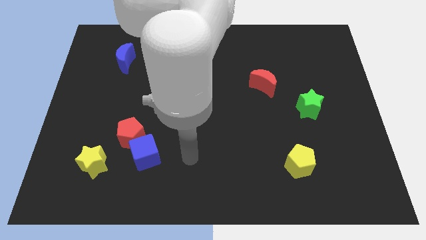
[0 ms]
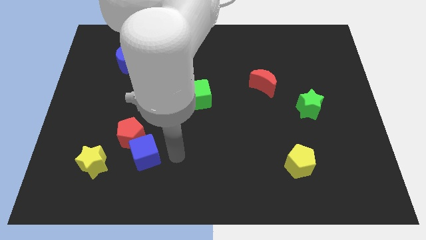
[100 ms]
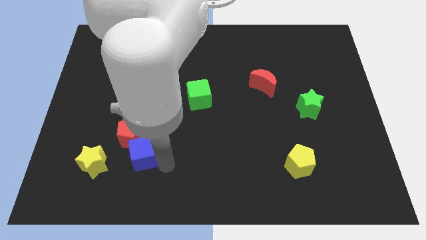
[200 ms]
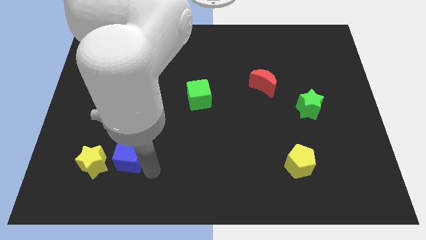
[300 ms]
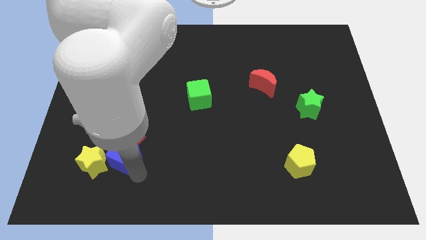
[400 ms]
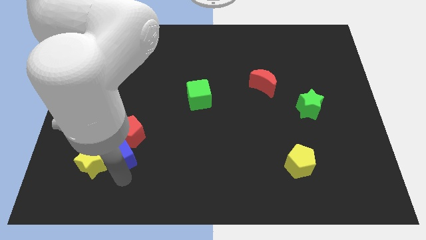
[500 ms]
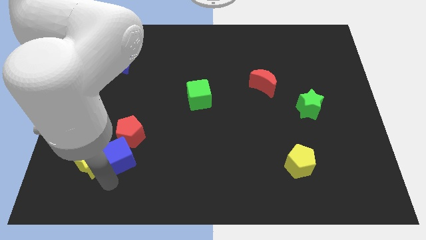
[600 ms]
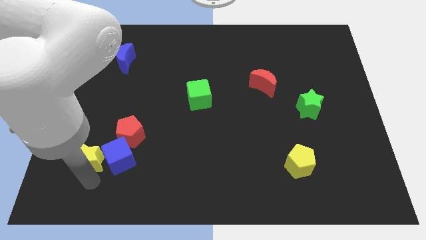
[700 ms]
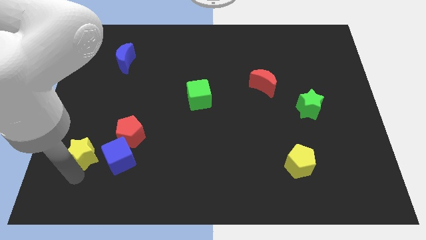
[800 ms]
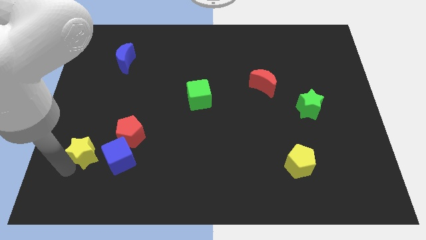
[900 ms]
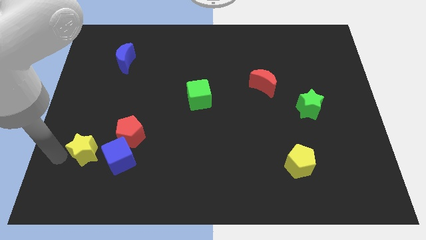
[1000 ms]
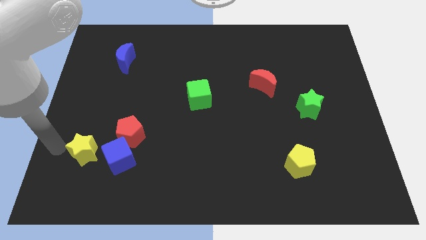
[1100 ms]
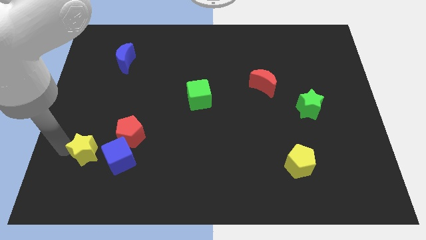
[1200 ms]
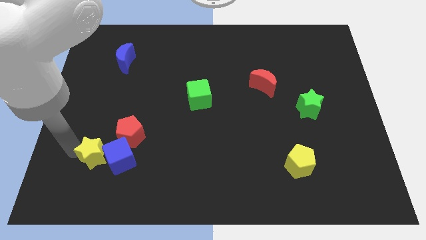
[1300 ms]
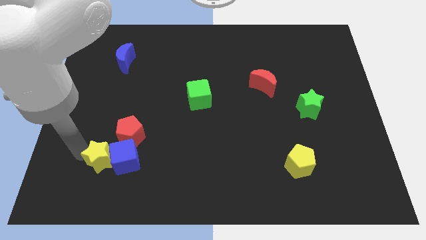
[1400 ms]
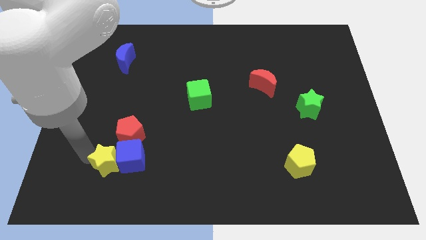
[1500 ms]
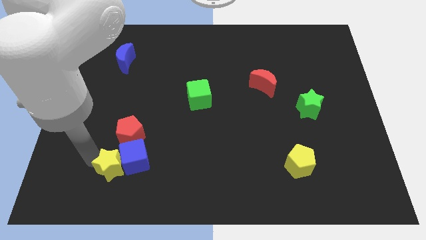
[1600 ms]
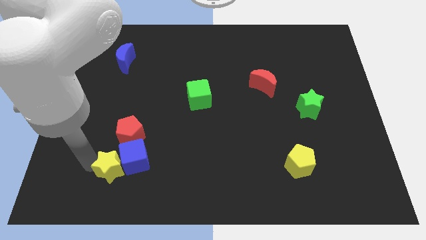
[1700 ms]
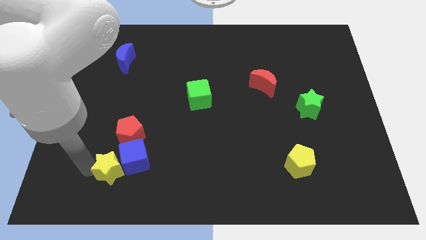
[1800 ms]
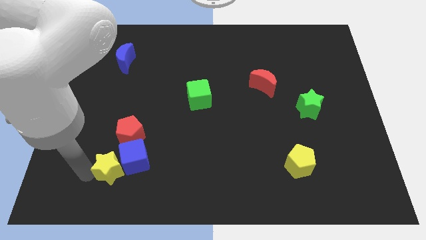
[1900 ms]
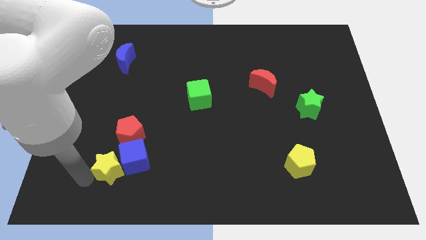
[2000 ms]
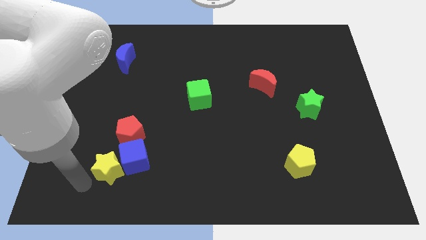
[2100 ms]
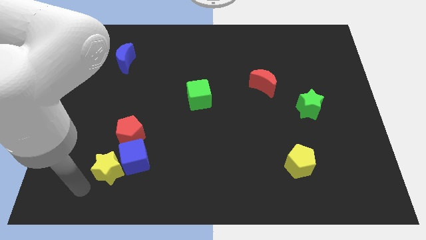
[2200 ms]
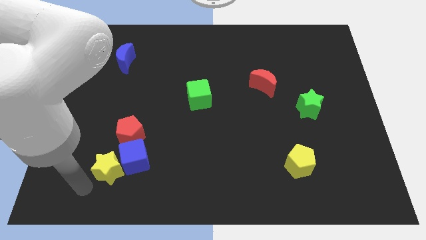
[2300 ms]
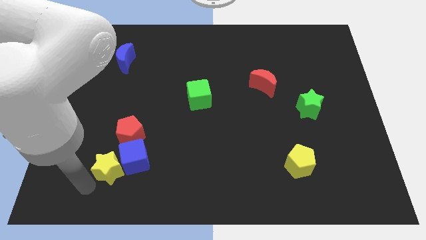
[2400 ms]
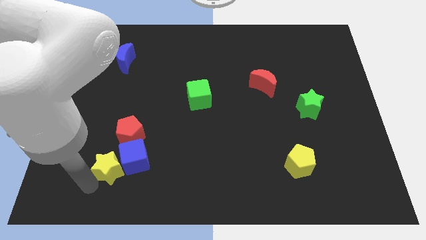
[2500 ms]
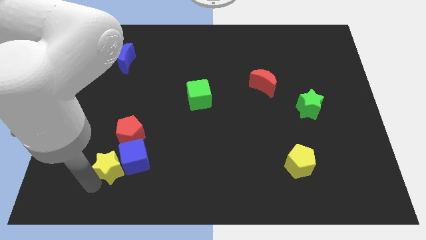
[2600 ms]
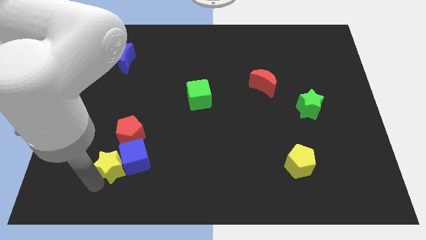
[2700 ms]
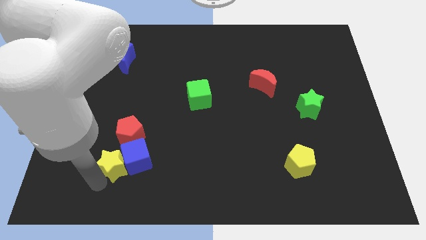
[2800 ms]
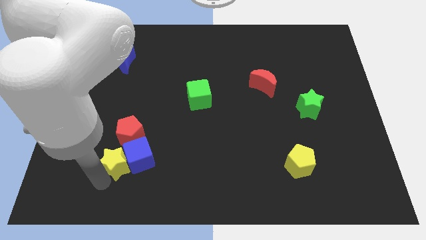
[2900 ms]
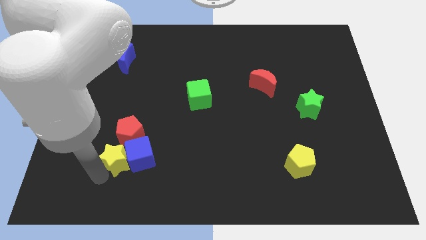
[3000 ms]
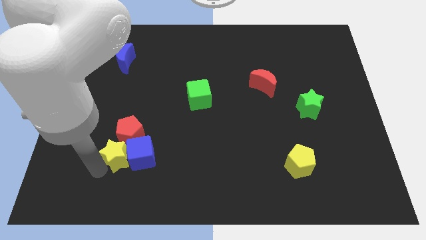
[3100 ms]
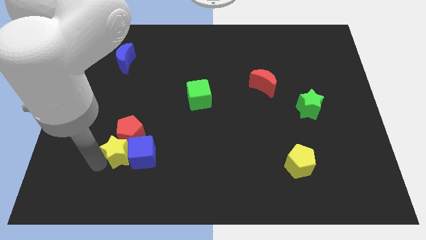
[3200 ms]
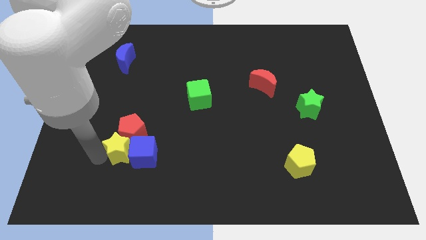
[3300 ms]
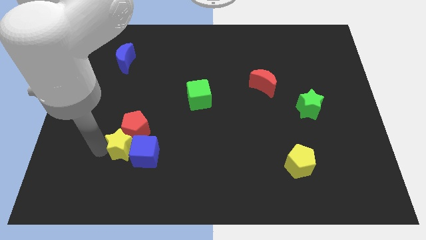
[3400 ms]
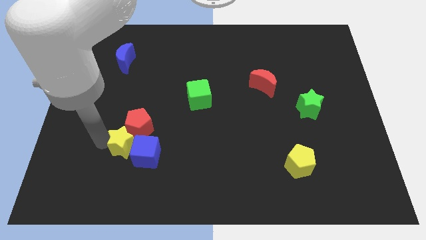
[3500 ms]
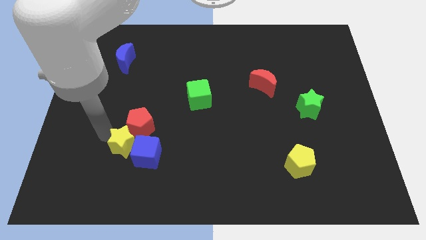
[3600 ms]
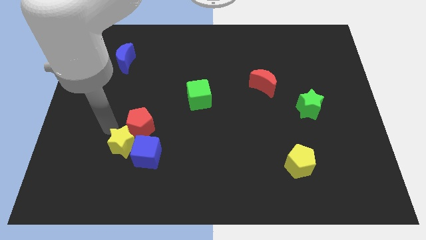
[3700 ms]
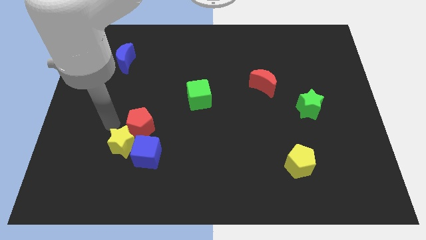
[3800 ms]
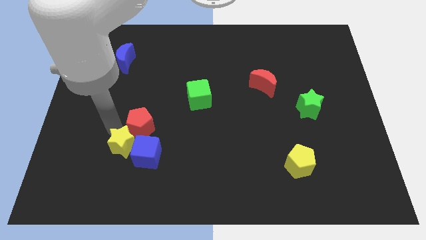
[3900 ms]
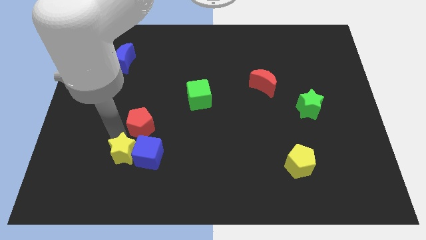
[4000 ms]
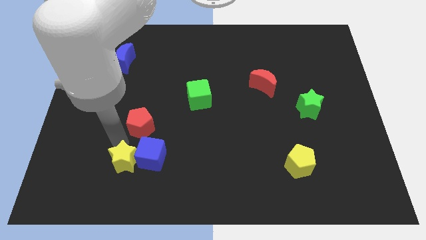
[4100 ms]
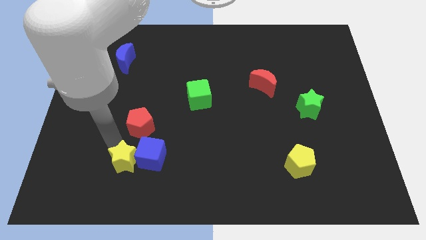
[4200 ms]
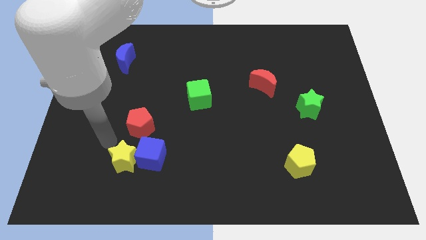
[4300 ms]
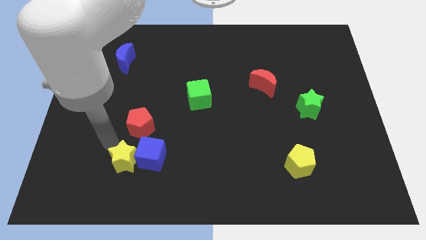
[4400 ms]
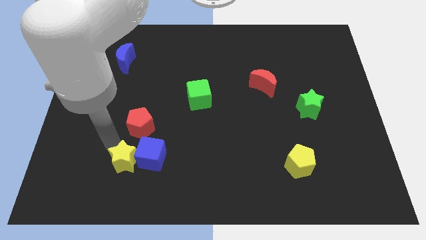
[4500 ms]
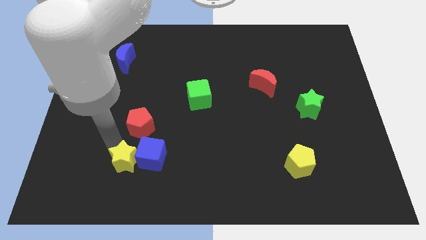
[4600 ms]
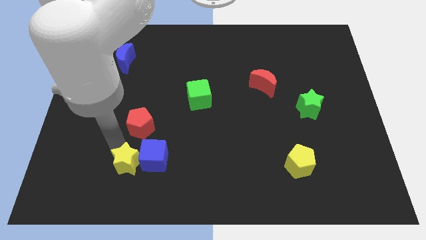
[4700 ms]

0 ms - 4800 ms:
slightly slide the yellow star right

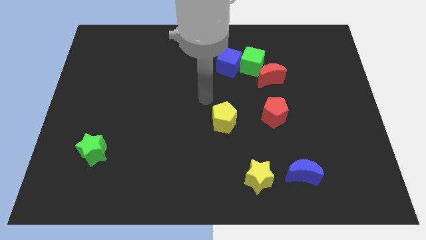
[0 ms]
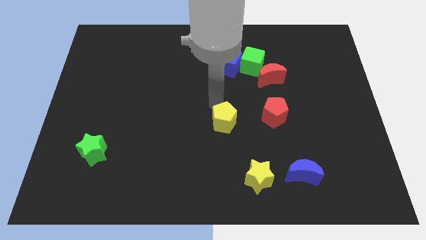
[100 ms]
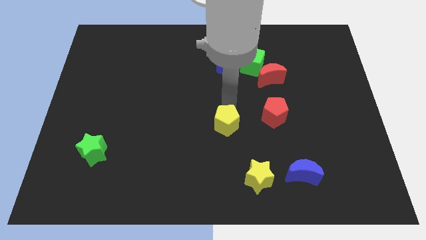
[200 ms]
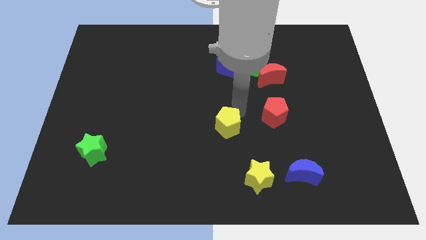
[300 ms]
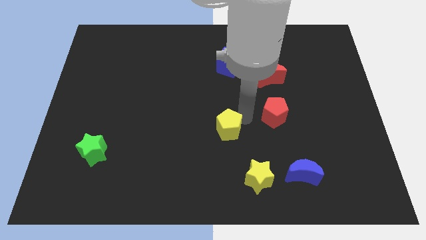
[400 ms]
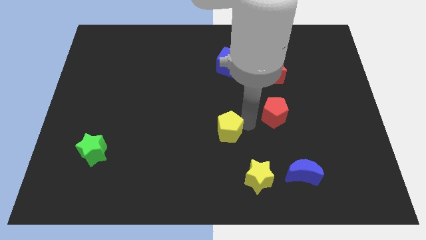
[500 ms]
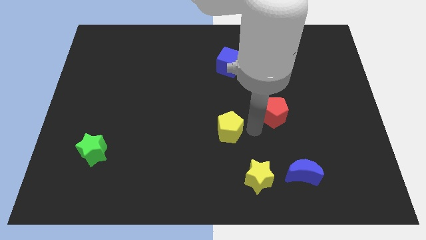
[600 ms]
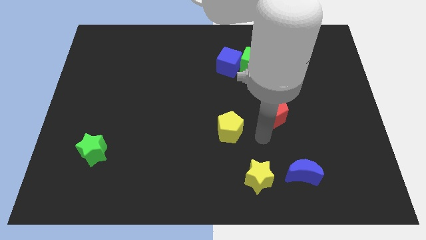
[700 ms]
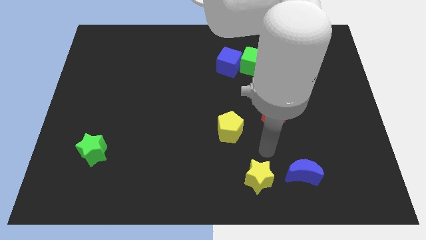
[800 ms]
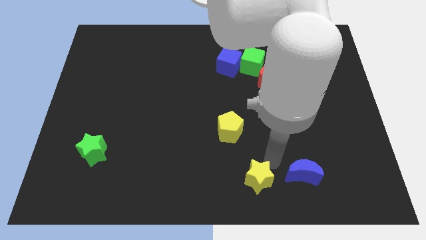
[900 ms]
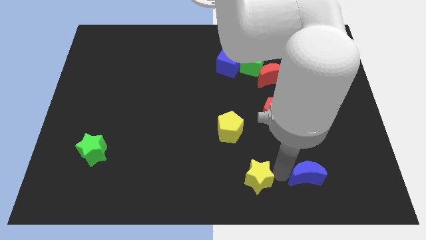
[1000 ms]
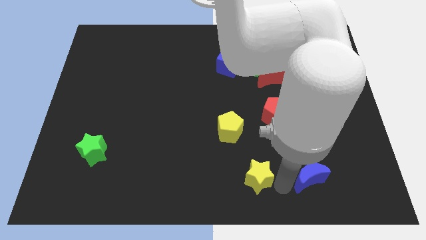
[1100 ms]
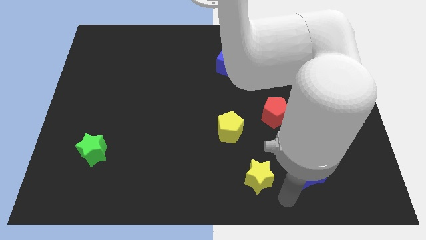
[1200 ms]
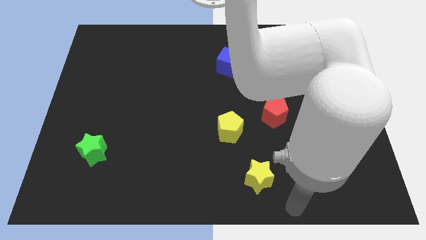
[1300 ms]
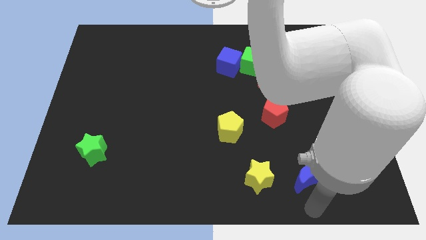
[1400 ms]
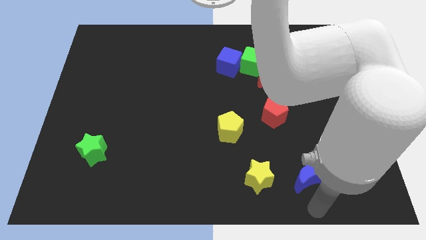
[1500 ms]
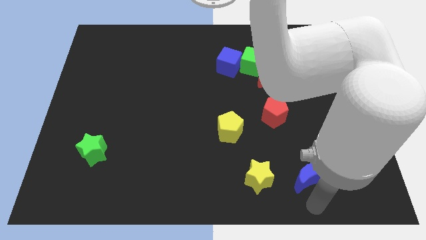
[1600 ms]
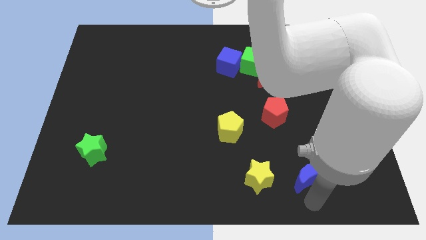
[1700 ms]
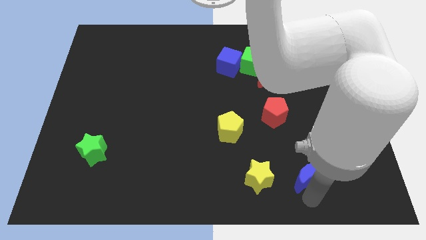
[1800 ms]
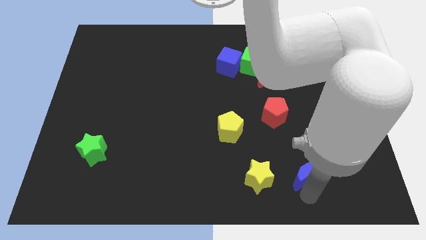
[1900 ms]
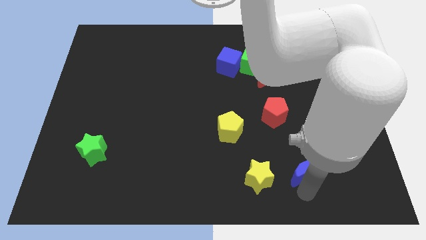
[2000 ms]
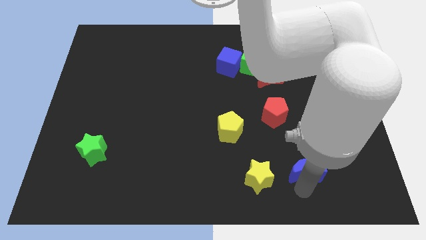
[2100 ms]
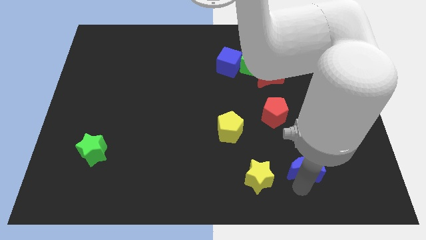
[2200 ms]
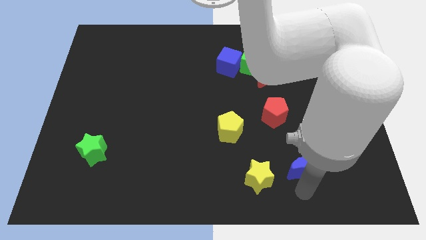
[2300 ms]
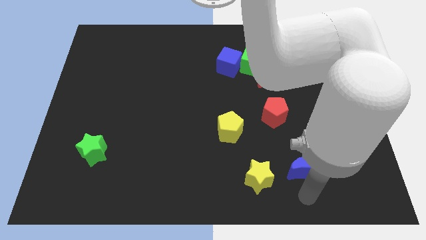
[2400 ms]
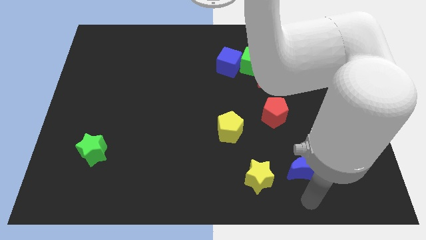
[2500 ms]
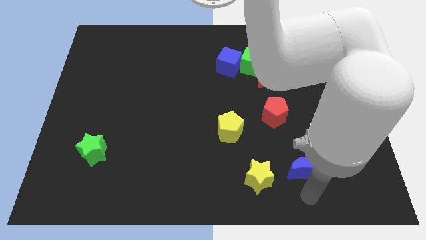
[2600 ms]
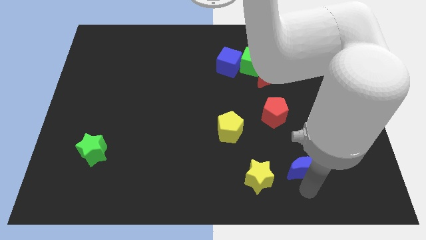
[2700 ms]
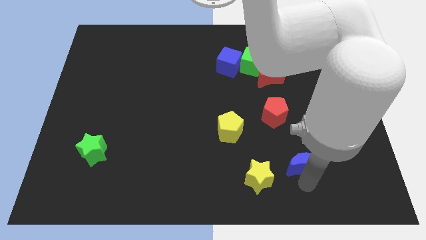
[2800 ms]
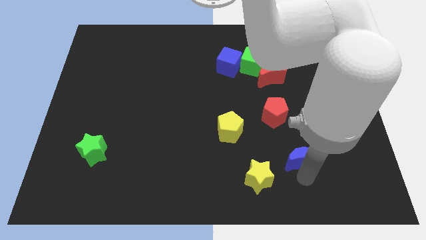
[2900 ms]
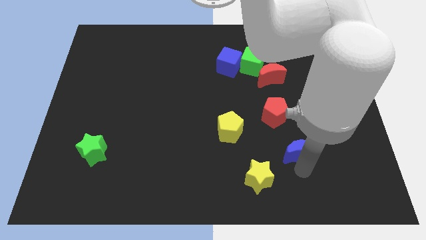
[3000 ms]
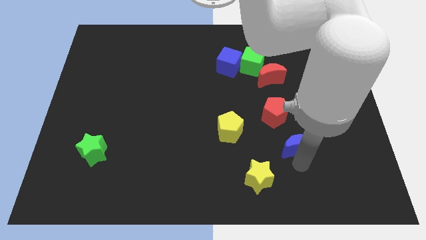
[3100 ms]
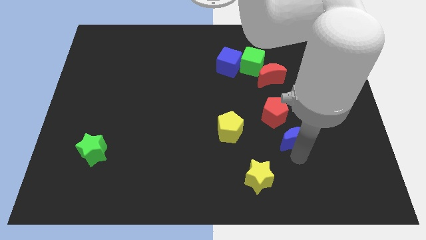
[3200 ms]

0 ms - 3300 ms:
slightly move the blue moon upwards
